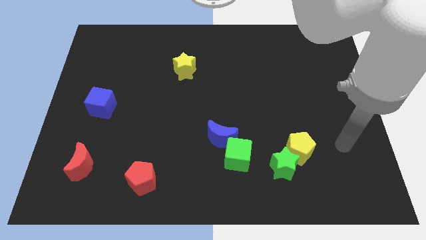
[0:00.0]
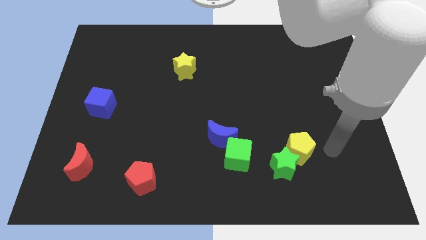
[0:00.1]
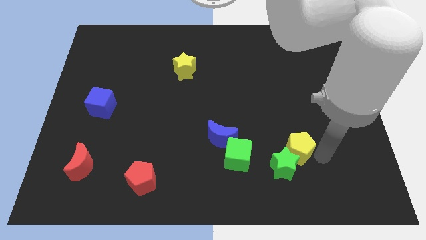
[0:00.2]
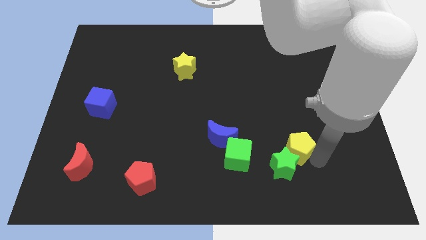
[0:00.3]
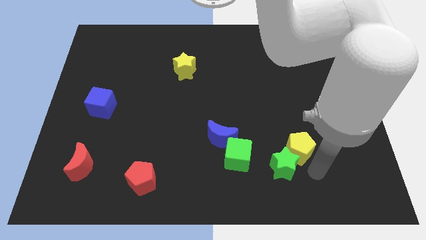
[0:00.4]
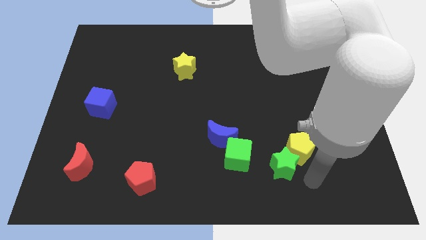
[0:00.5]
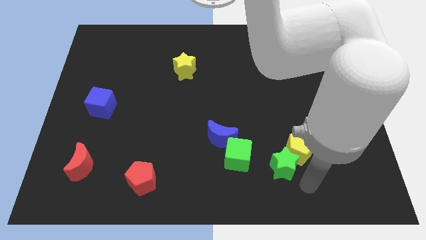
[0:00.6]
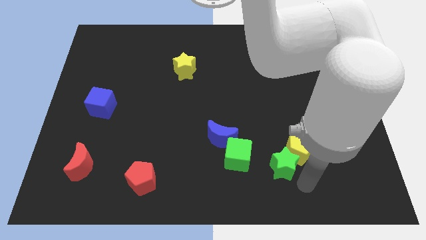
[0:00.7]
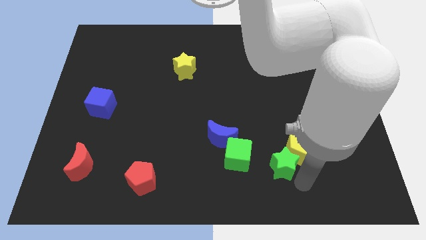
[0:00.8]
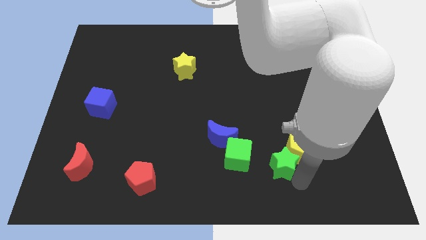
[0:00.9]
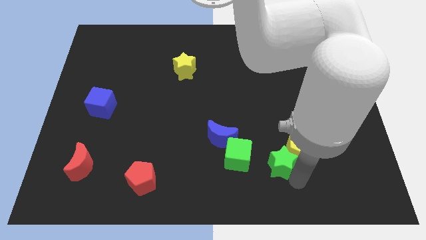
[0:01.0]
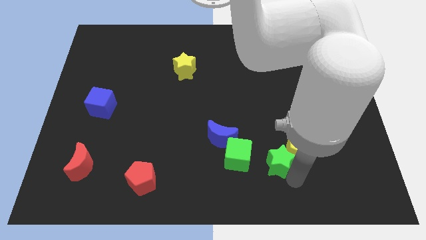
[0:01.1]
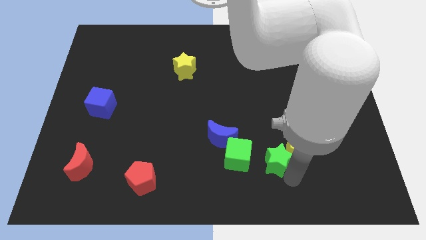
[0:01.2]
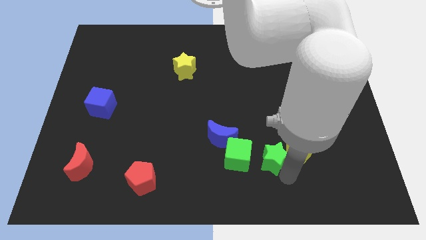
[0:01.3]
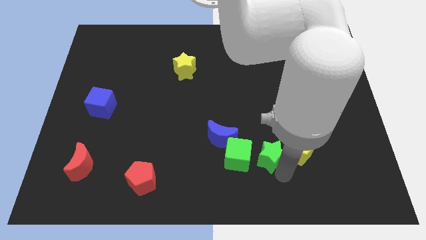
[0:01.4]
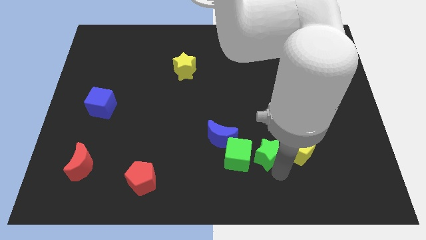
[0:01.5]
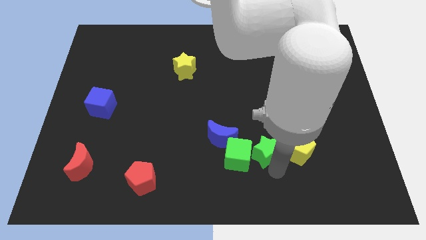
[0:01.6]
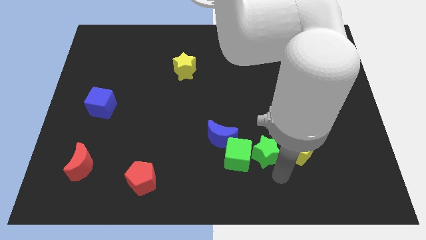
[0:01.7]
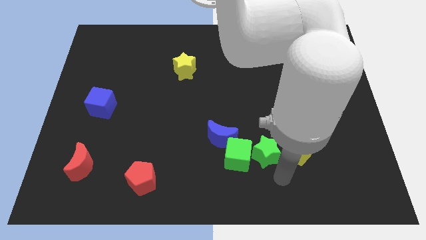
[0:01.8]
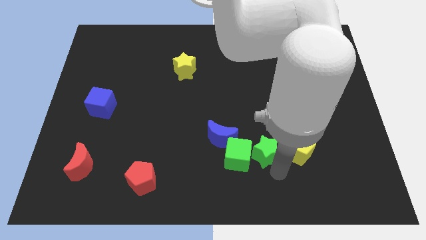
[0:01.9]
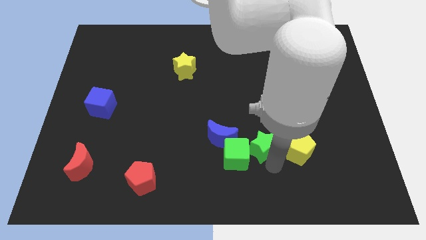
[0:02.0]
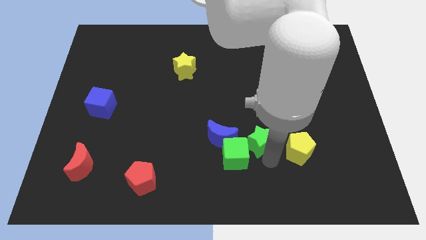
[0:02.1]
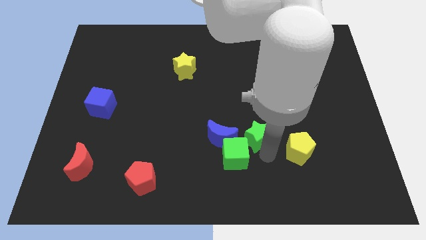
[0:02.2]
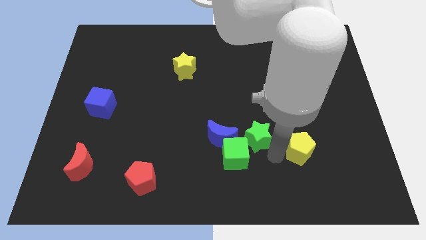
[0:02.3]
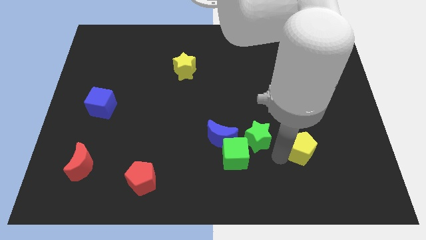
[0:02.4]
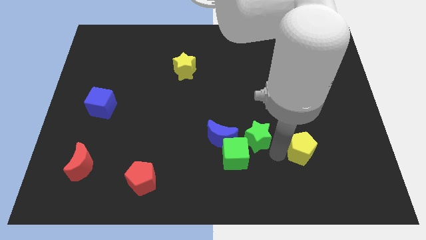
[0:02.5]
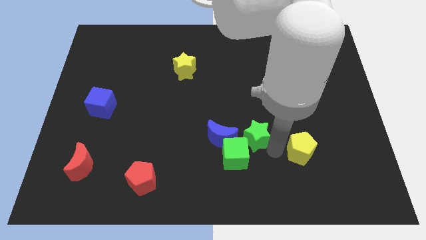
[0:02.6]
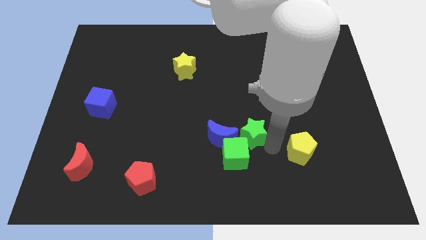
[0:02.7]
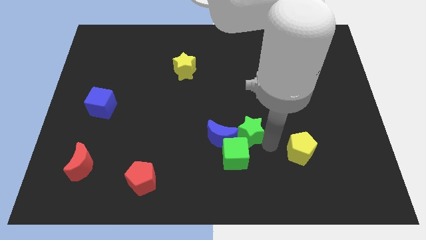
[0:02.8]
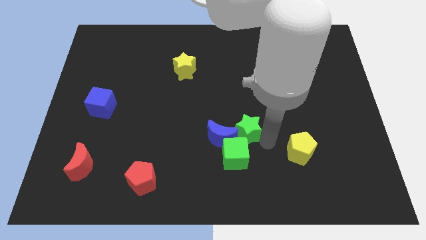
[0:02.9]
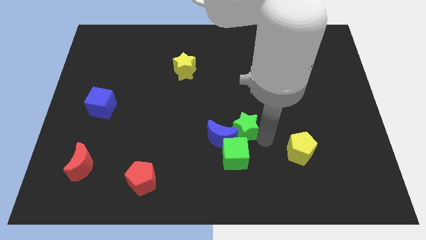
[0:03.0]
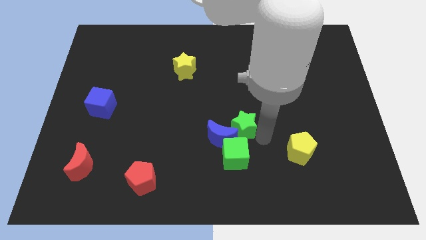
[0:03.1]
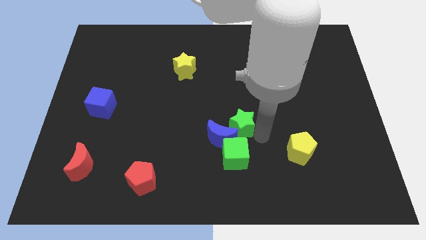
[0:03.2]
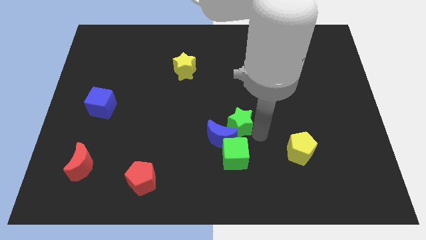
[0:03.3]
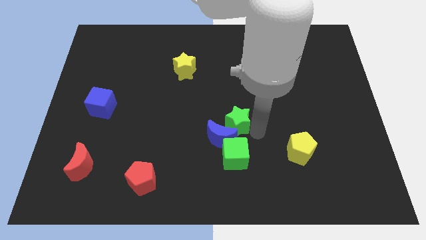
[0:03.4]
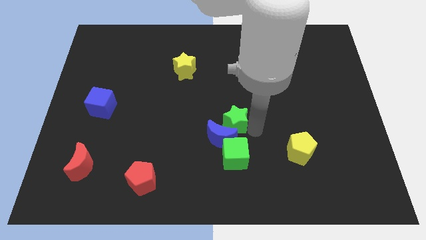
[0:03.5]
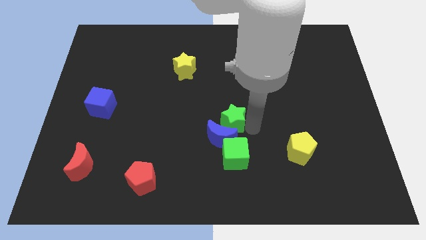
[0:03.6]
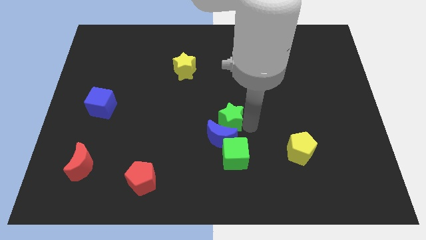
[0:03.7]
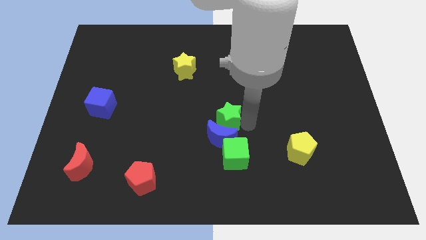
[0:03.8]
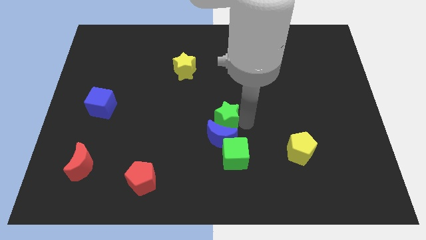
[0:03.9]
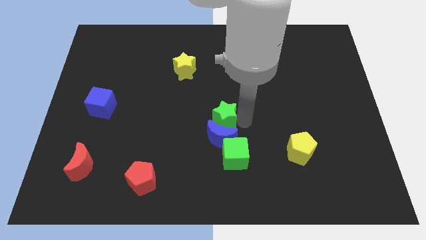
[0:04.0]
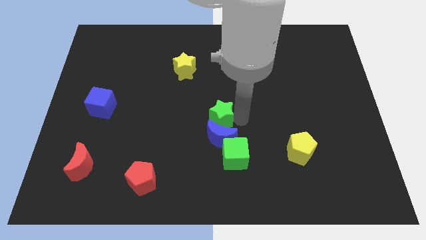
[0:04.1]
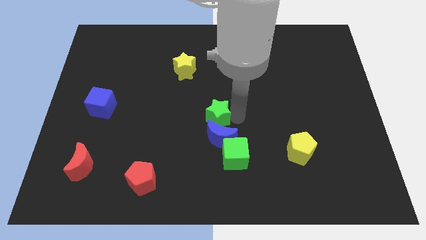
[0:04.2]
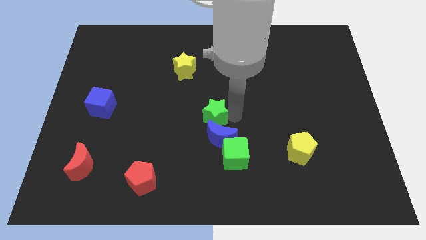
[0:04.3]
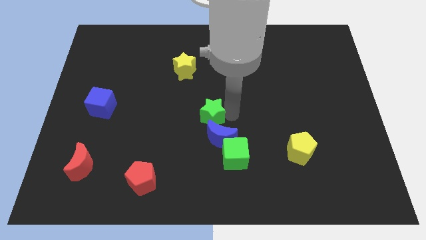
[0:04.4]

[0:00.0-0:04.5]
slide the green star upwards and to the left diagonally

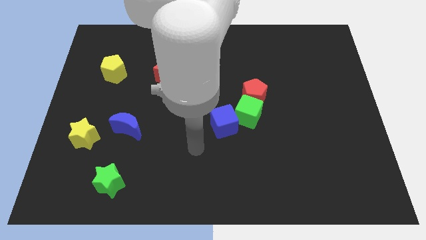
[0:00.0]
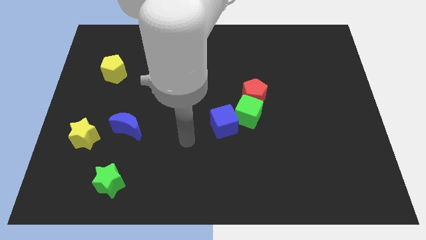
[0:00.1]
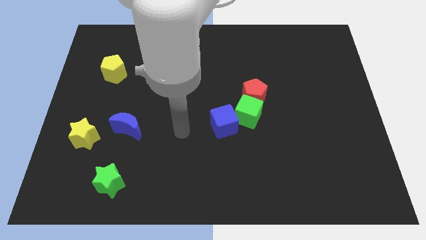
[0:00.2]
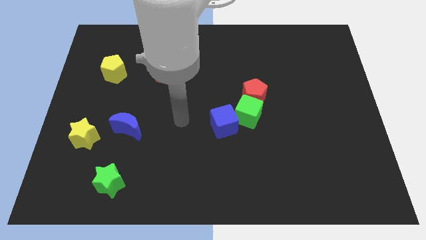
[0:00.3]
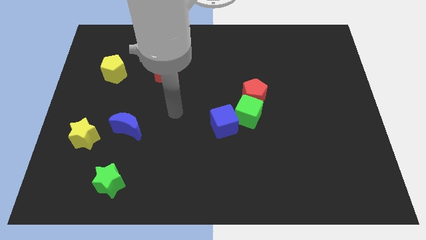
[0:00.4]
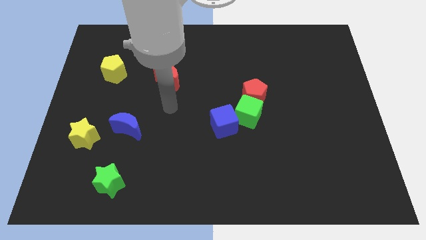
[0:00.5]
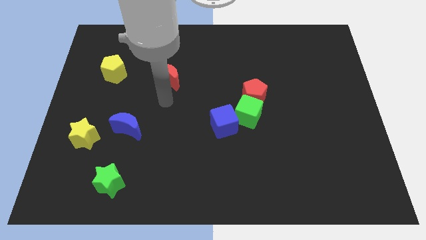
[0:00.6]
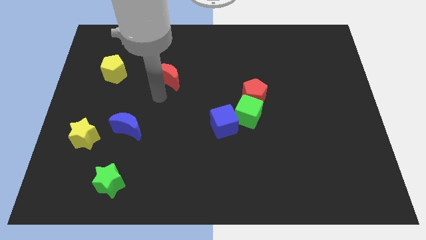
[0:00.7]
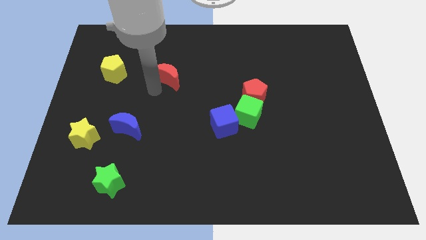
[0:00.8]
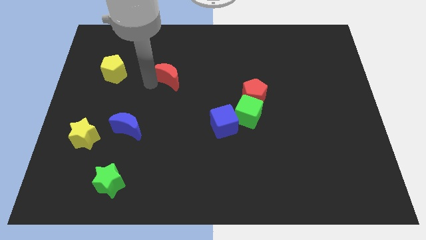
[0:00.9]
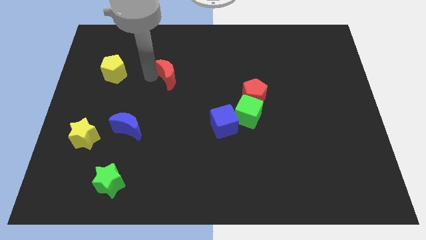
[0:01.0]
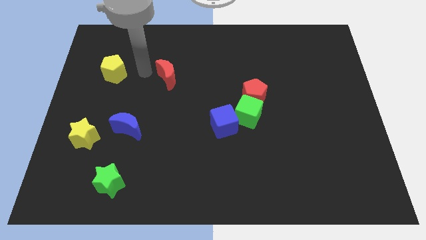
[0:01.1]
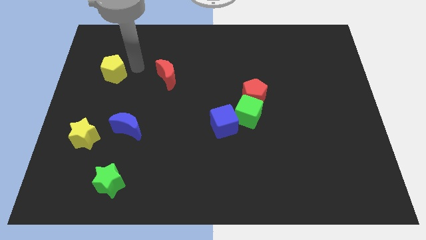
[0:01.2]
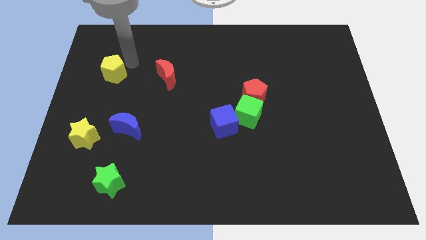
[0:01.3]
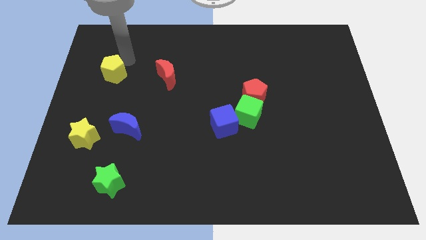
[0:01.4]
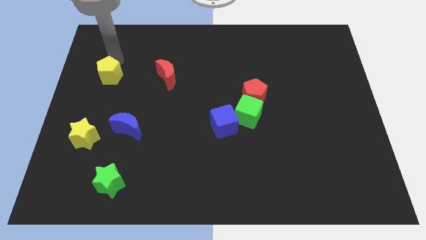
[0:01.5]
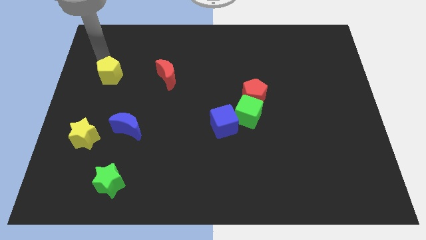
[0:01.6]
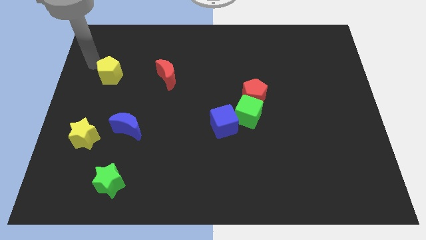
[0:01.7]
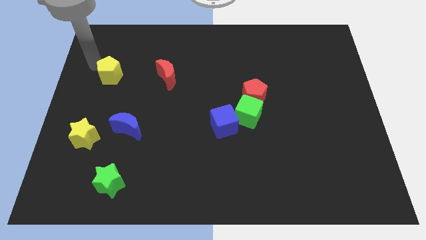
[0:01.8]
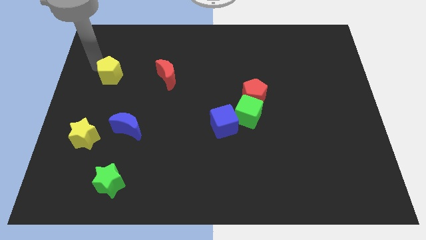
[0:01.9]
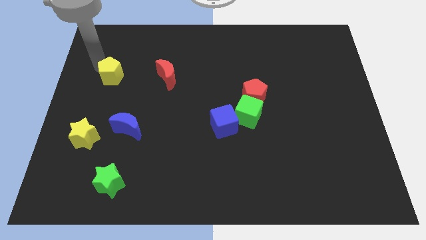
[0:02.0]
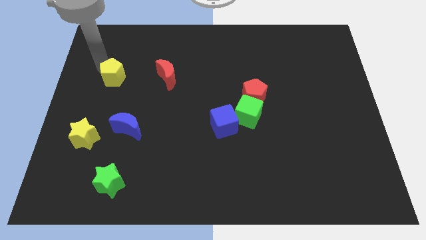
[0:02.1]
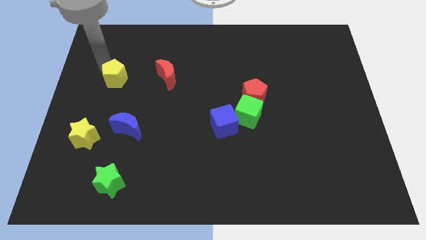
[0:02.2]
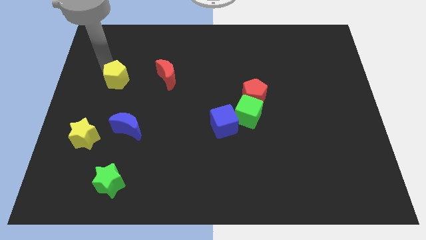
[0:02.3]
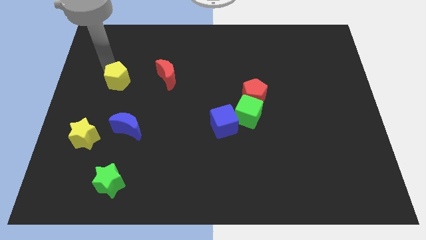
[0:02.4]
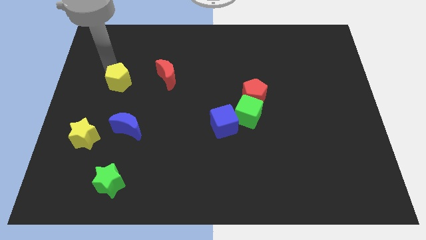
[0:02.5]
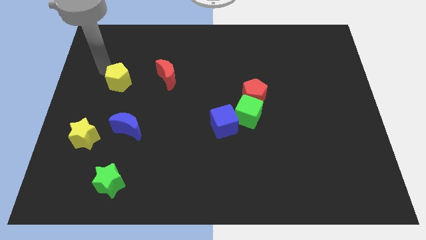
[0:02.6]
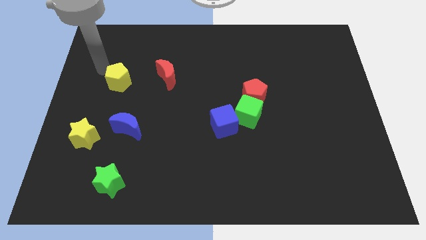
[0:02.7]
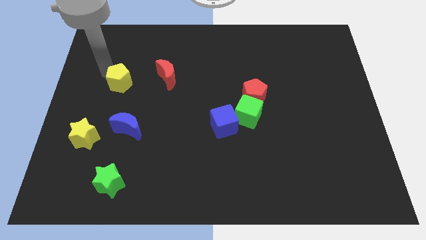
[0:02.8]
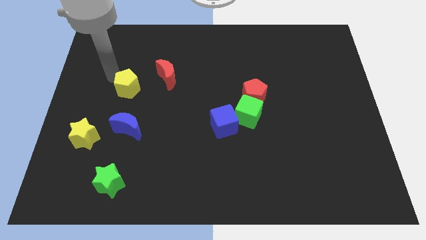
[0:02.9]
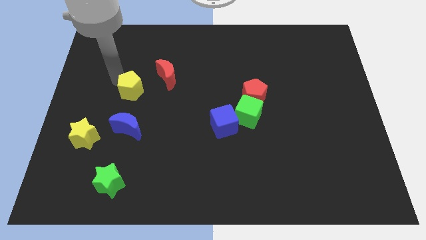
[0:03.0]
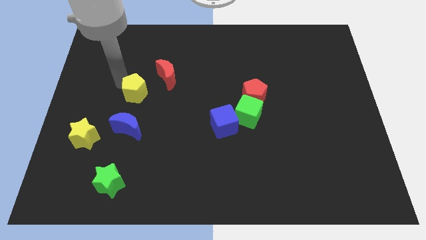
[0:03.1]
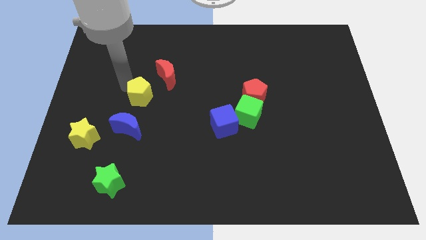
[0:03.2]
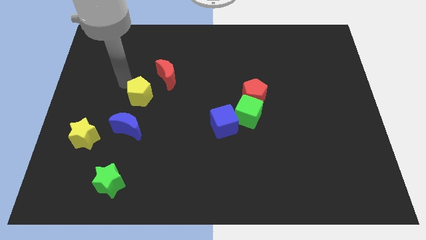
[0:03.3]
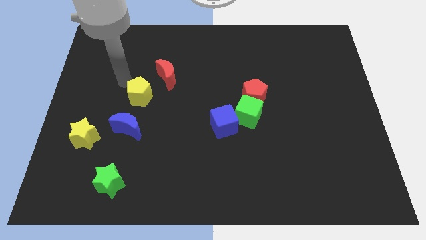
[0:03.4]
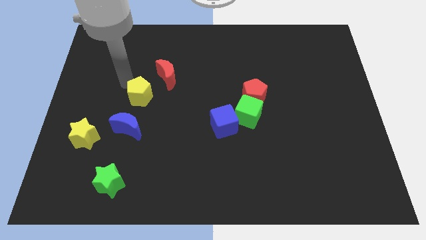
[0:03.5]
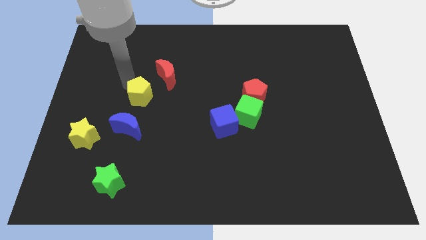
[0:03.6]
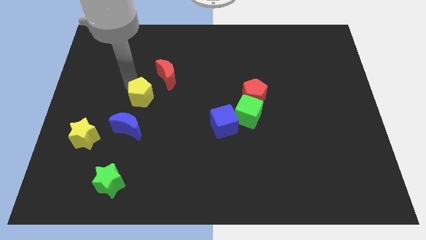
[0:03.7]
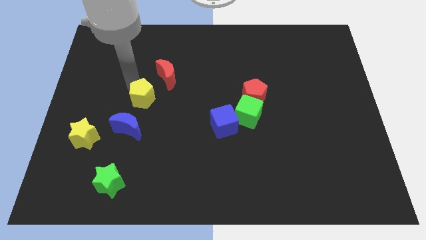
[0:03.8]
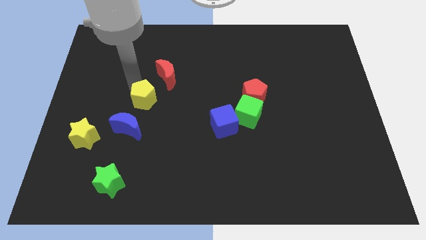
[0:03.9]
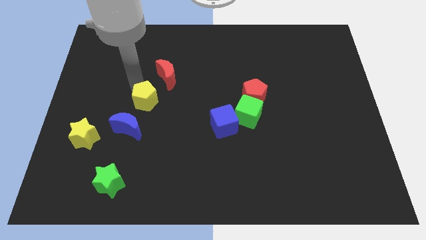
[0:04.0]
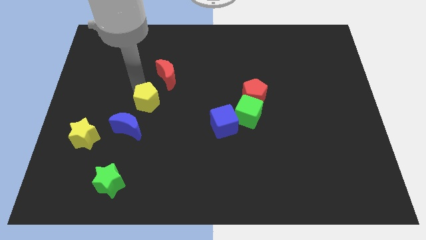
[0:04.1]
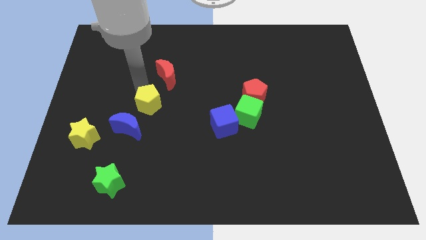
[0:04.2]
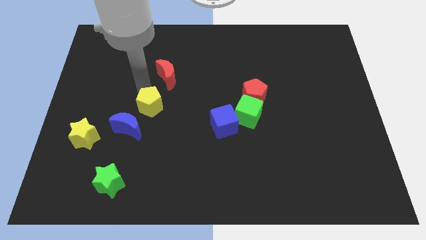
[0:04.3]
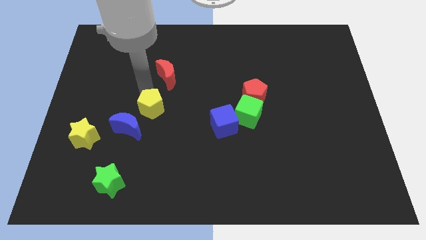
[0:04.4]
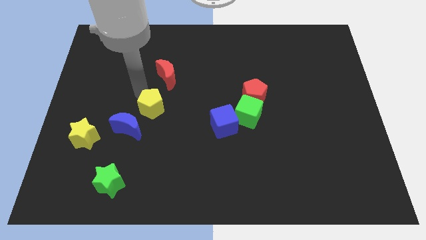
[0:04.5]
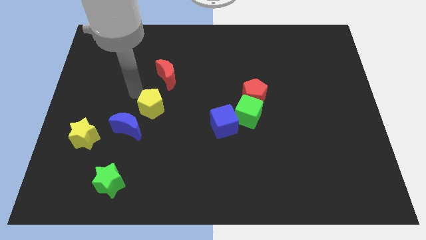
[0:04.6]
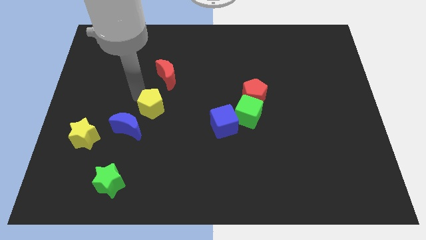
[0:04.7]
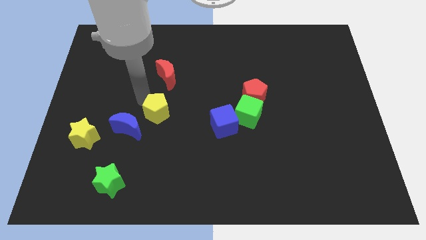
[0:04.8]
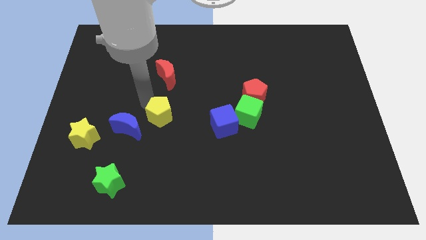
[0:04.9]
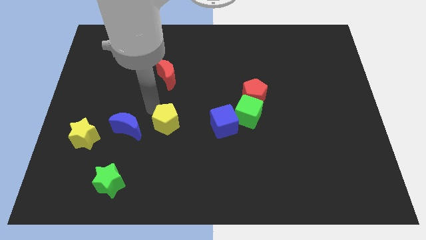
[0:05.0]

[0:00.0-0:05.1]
move the yellow pentagon downwards and then to the right
